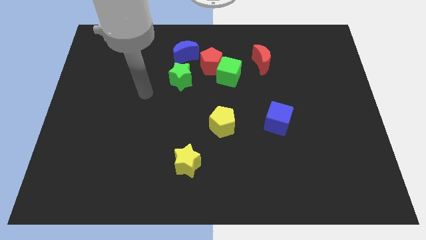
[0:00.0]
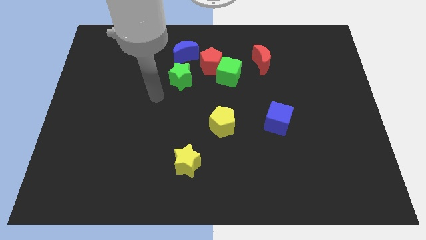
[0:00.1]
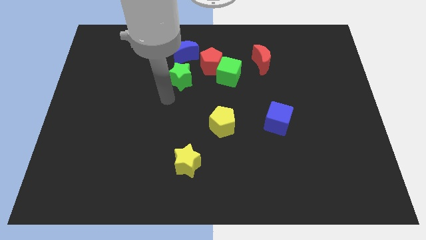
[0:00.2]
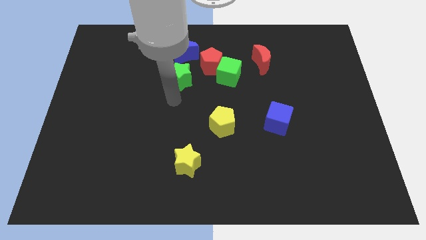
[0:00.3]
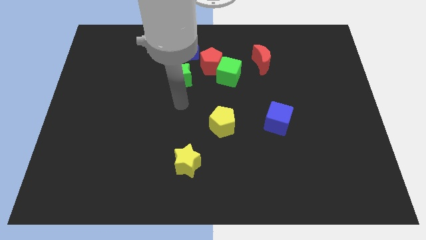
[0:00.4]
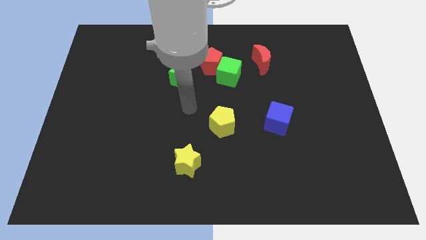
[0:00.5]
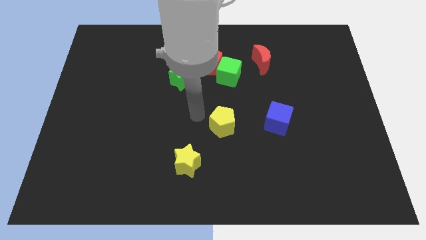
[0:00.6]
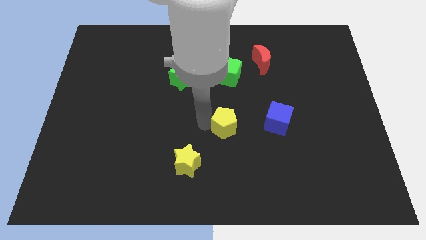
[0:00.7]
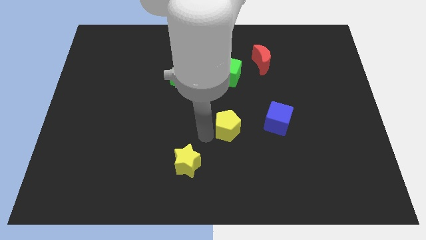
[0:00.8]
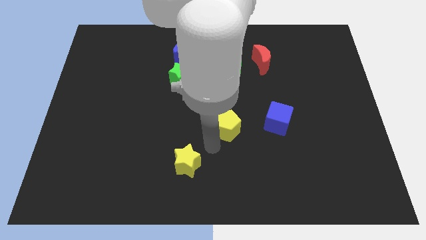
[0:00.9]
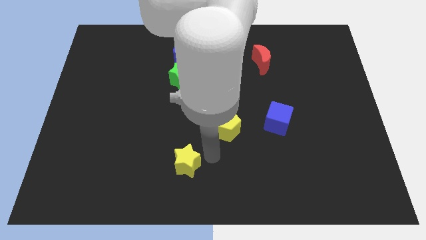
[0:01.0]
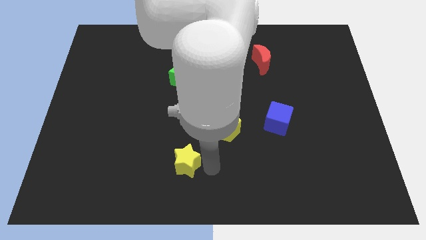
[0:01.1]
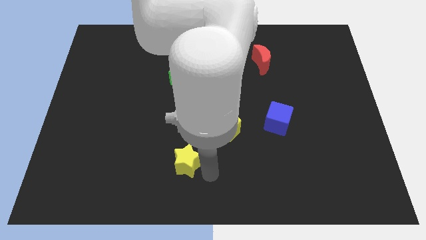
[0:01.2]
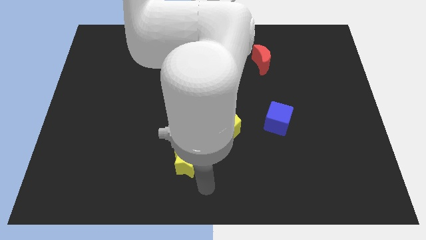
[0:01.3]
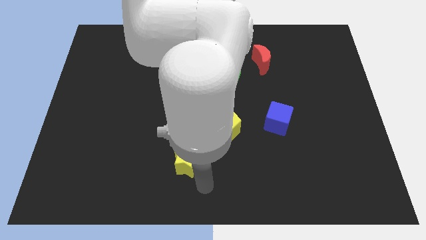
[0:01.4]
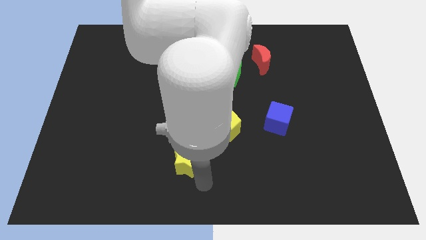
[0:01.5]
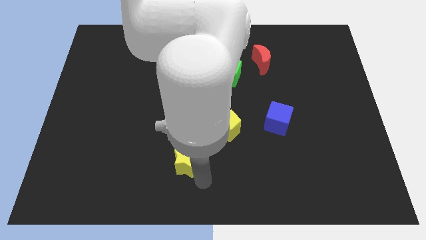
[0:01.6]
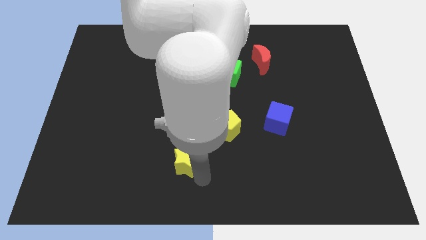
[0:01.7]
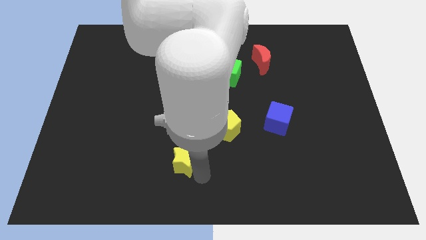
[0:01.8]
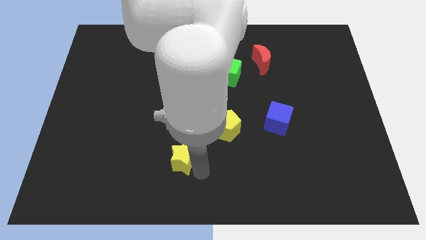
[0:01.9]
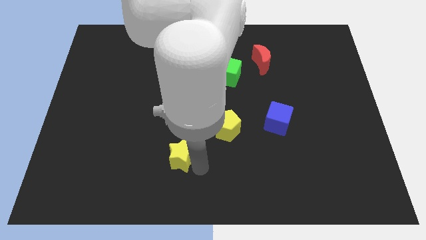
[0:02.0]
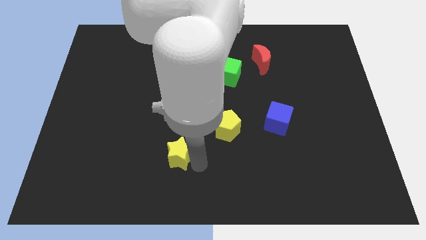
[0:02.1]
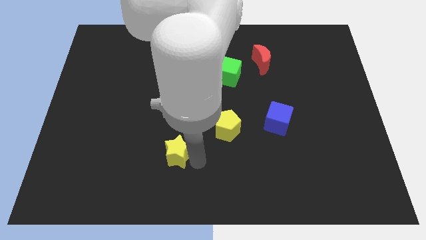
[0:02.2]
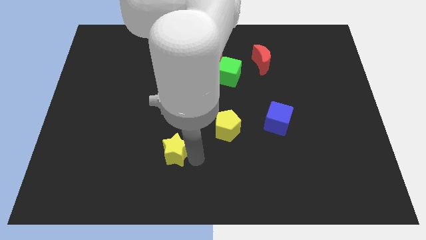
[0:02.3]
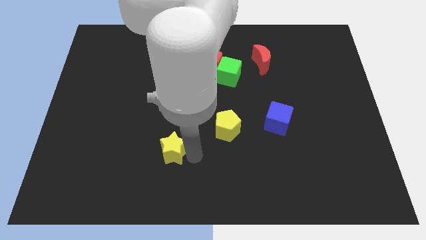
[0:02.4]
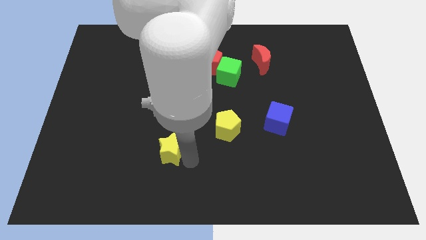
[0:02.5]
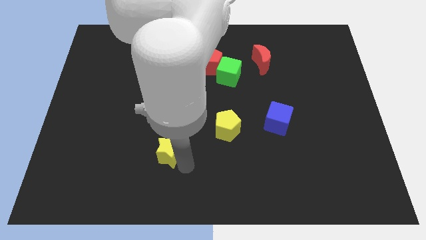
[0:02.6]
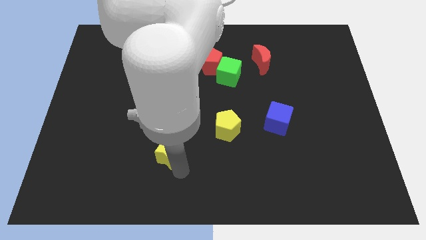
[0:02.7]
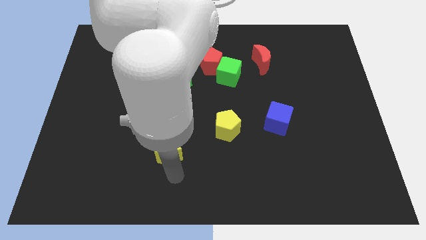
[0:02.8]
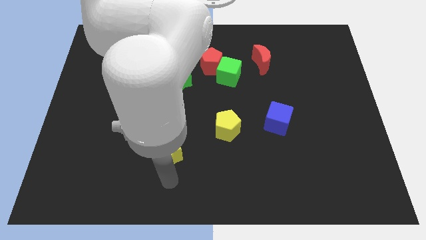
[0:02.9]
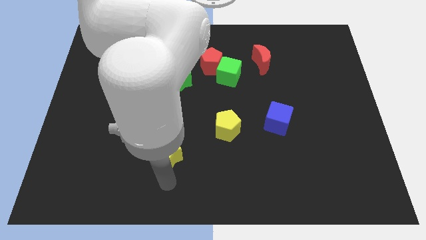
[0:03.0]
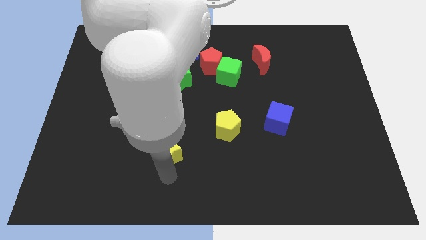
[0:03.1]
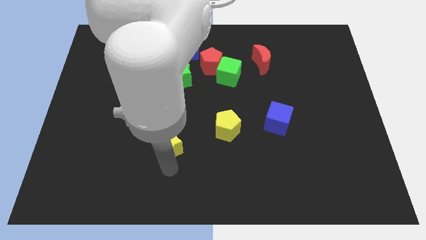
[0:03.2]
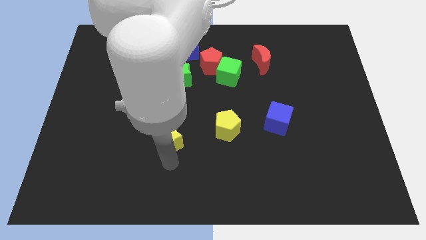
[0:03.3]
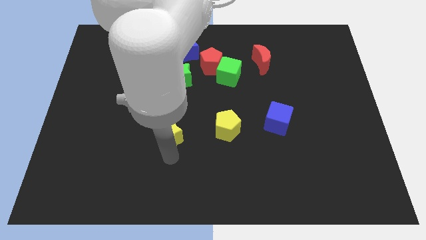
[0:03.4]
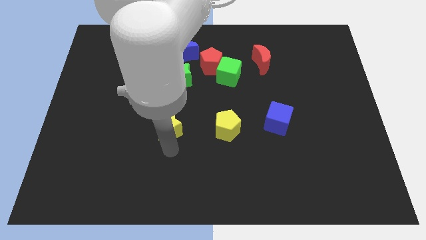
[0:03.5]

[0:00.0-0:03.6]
push the yellow star up a little bit

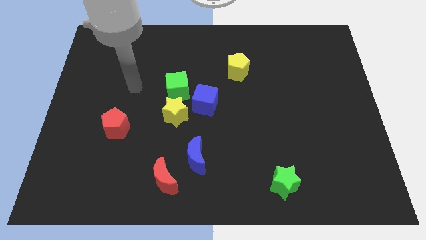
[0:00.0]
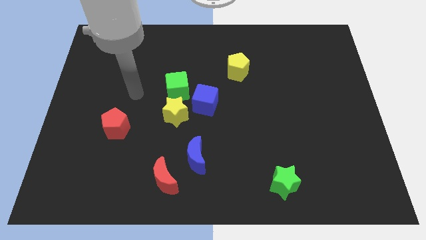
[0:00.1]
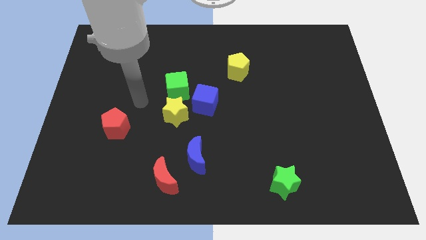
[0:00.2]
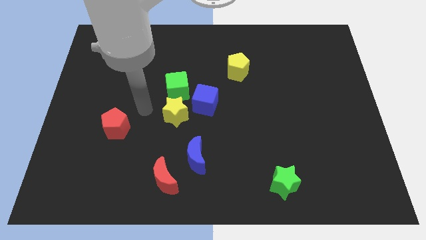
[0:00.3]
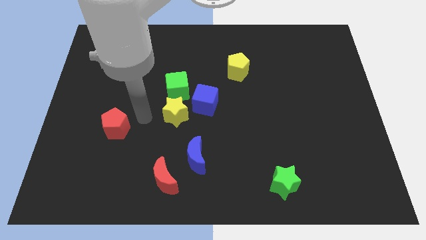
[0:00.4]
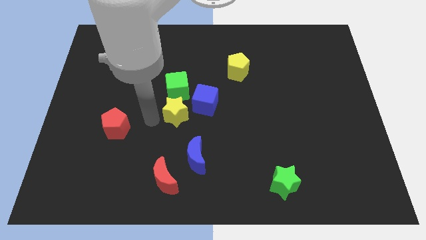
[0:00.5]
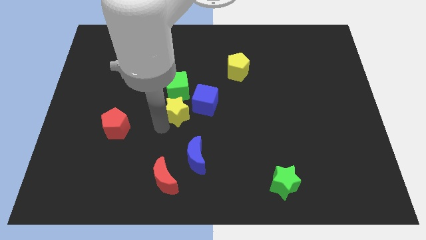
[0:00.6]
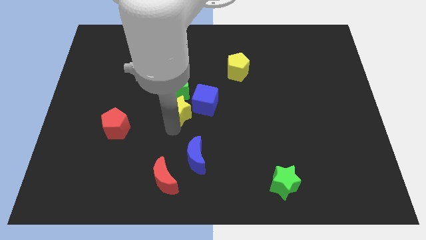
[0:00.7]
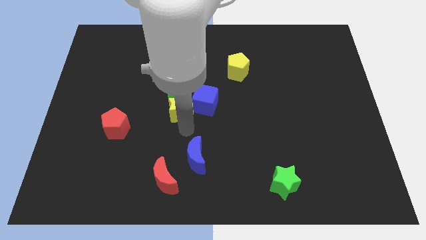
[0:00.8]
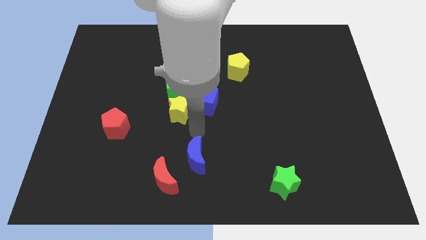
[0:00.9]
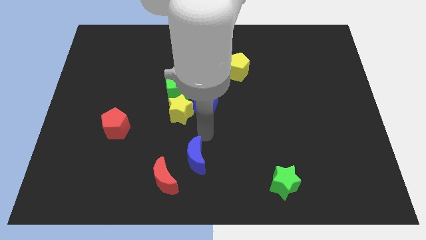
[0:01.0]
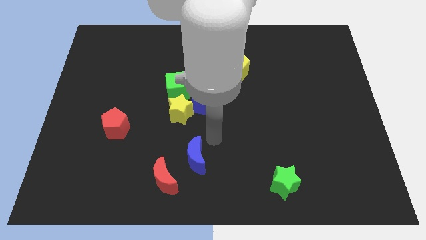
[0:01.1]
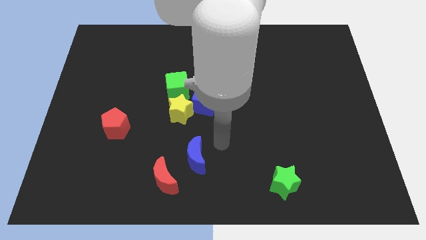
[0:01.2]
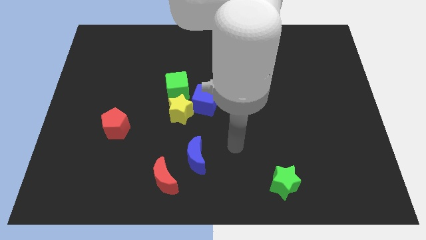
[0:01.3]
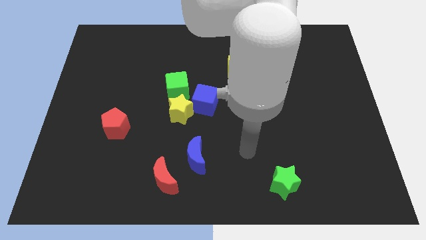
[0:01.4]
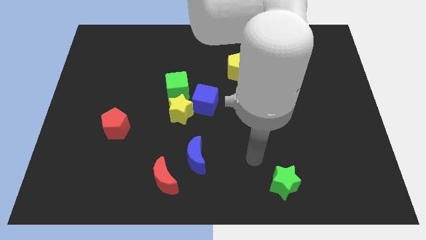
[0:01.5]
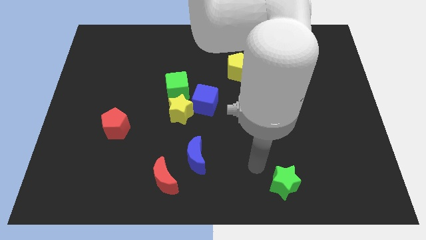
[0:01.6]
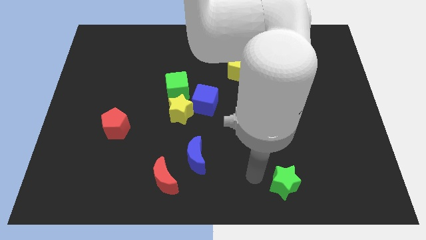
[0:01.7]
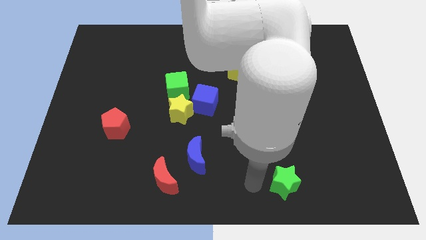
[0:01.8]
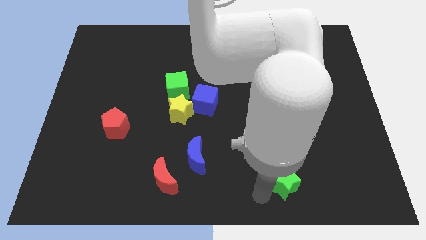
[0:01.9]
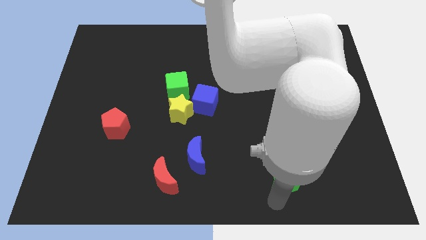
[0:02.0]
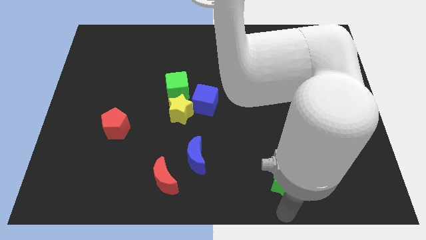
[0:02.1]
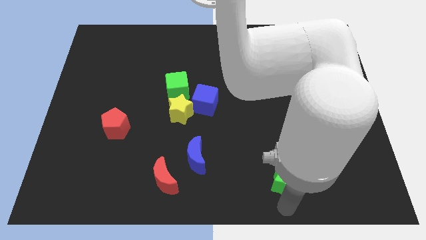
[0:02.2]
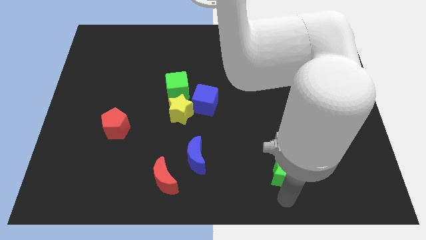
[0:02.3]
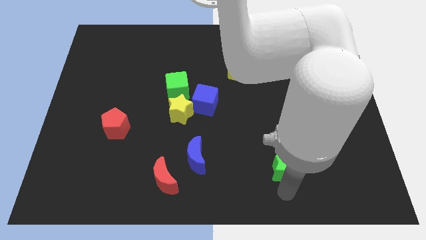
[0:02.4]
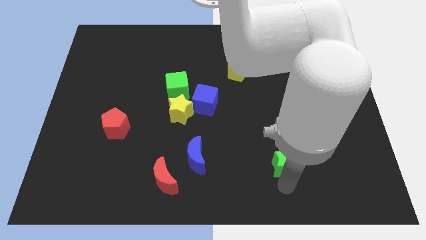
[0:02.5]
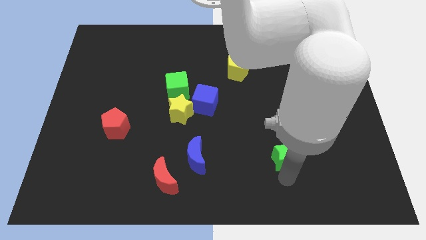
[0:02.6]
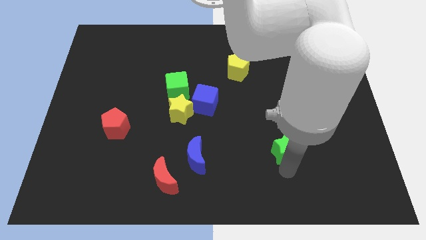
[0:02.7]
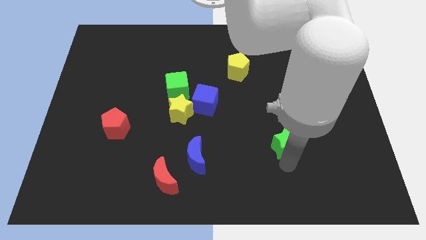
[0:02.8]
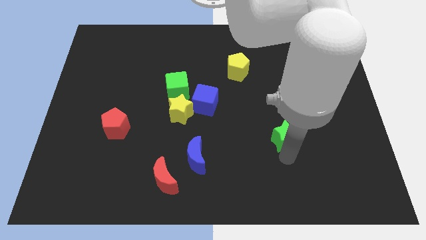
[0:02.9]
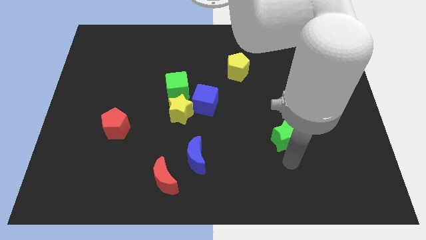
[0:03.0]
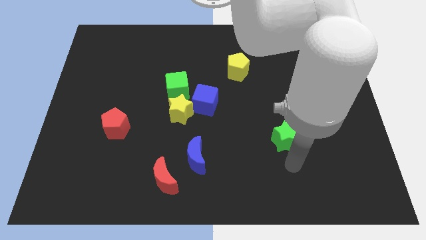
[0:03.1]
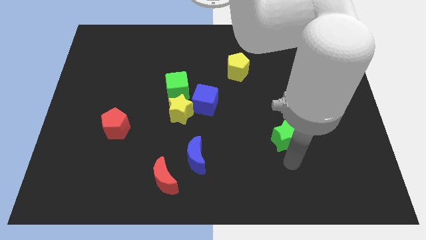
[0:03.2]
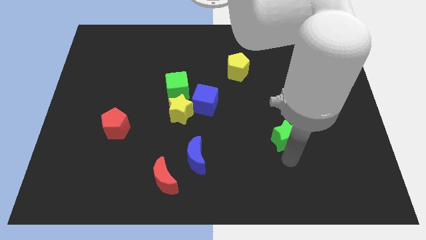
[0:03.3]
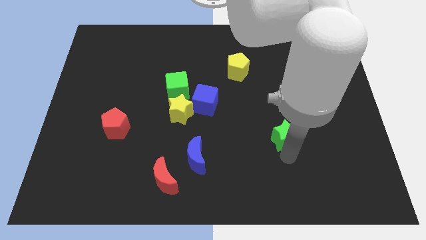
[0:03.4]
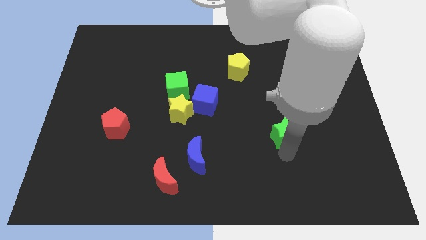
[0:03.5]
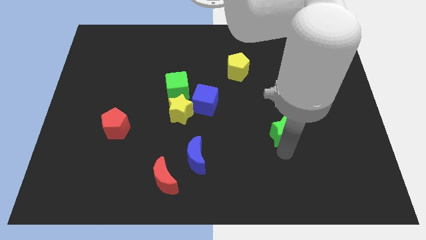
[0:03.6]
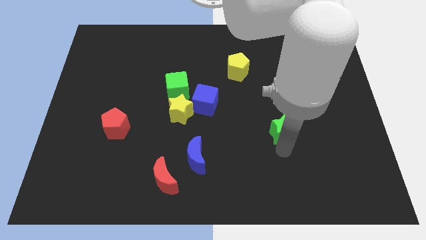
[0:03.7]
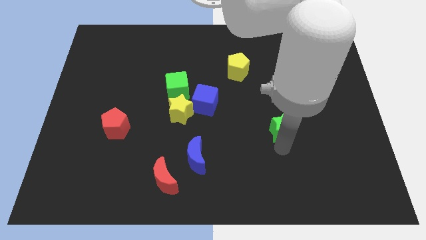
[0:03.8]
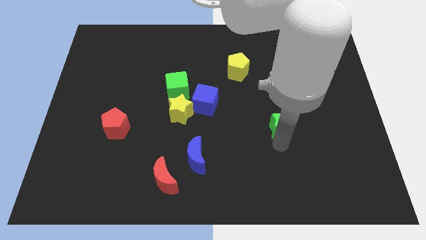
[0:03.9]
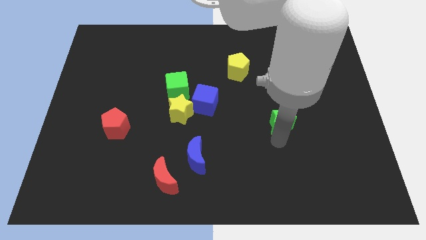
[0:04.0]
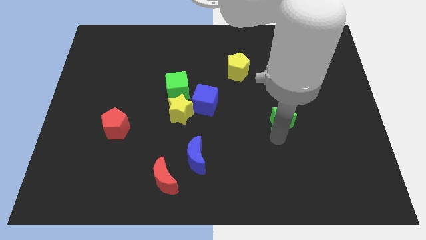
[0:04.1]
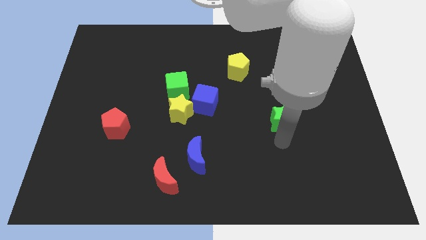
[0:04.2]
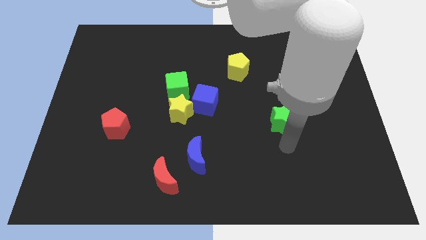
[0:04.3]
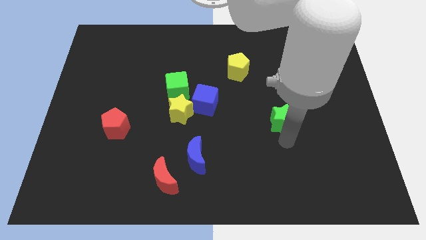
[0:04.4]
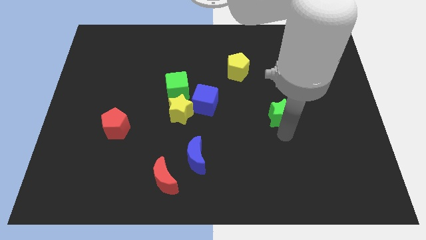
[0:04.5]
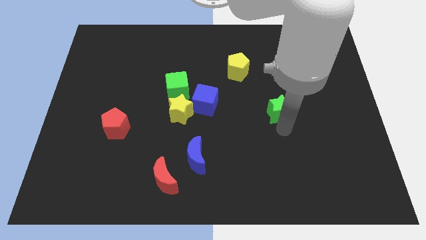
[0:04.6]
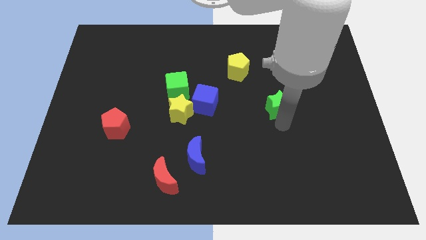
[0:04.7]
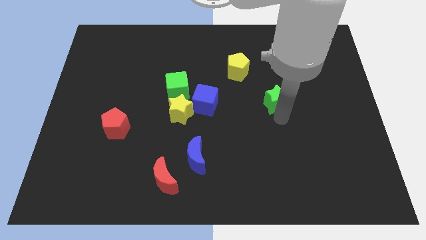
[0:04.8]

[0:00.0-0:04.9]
move the green star up
